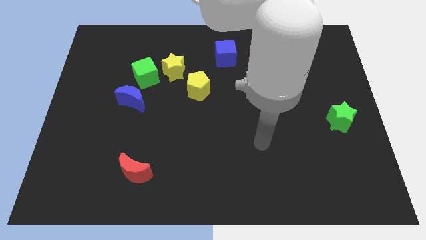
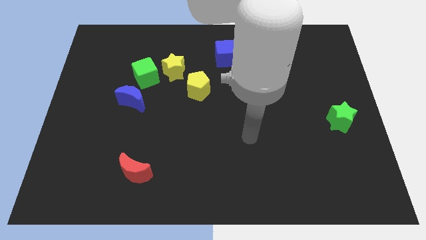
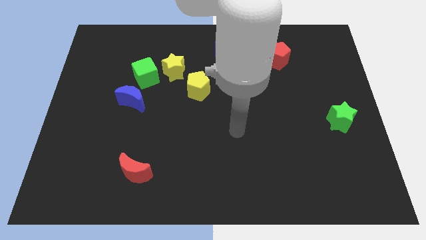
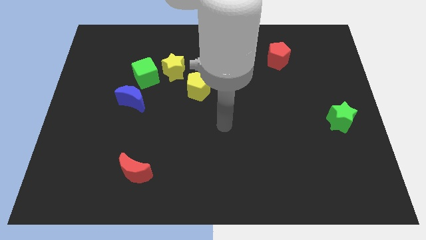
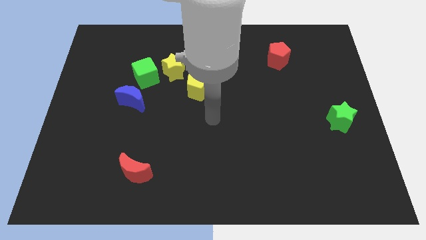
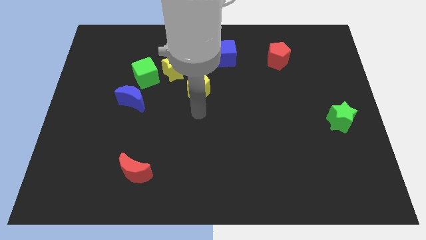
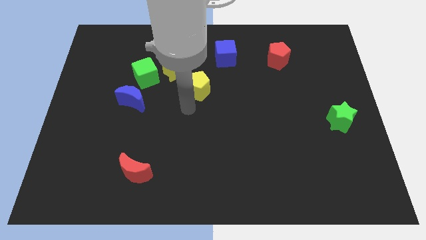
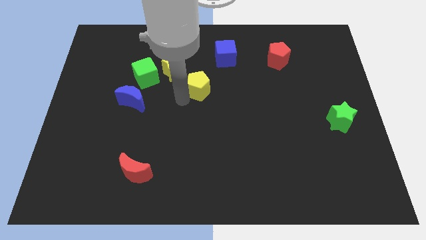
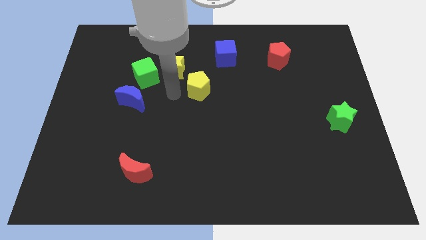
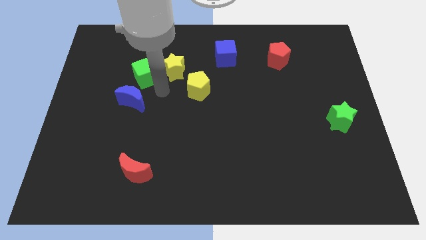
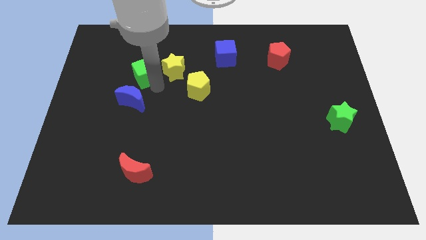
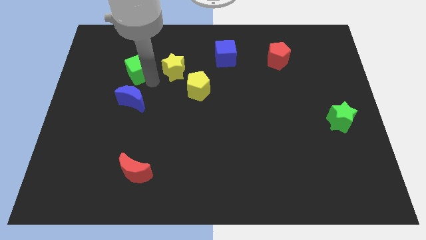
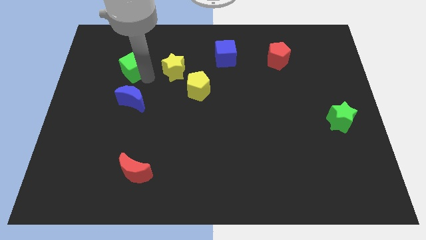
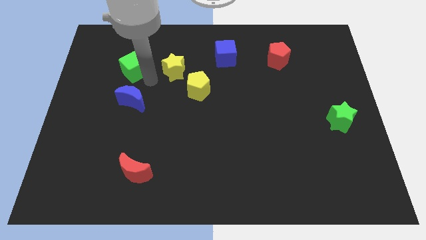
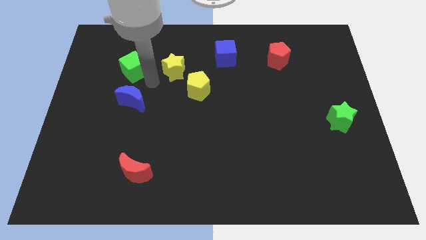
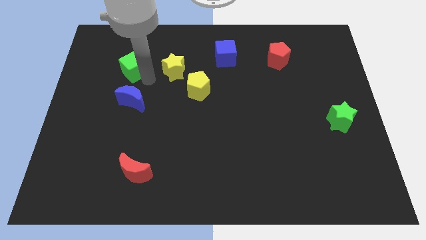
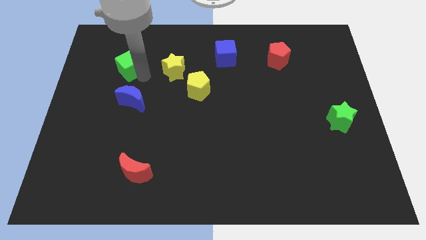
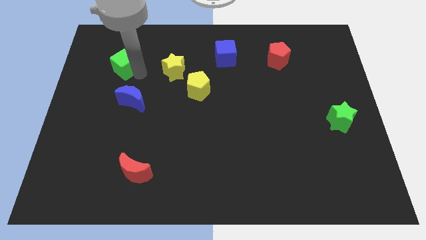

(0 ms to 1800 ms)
move the green cube away from the yellow star and blue moon

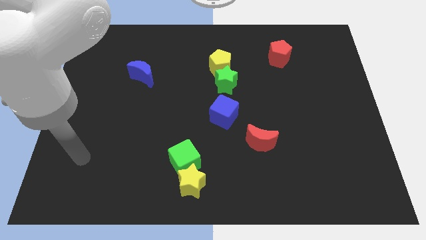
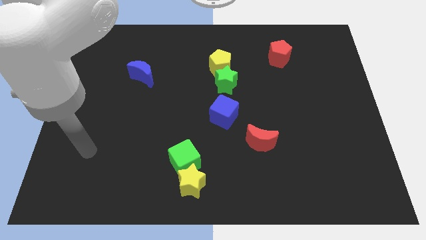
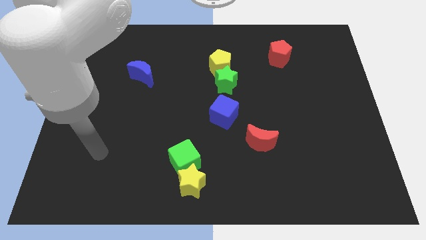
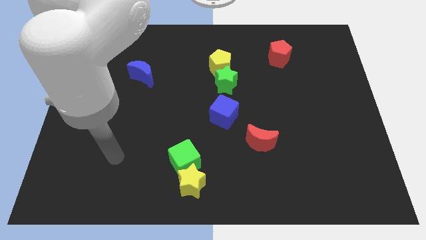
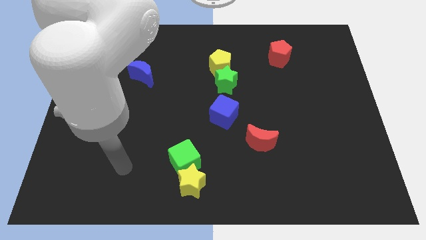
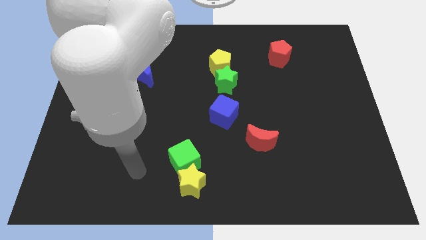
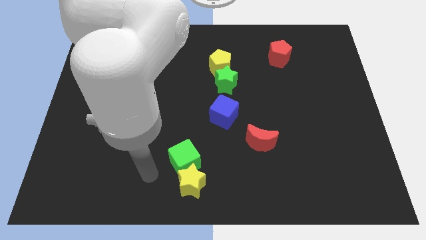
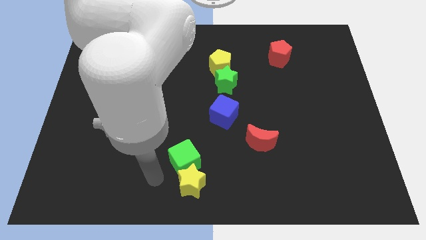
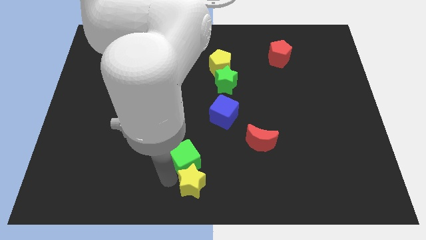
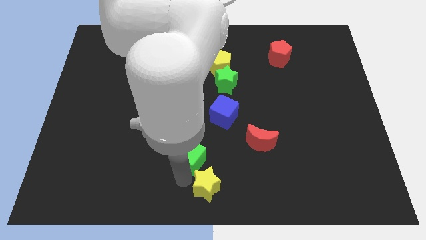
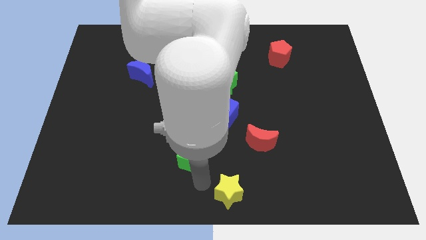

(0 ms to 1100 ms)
separate the green cube from the yellow star

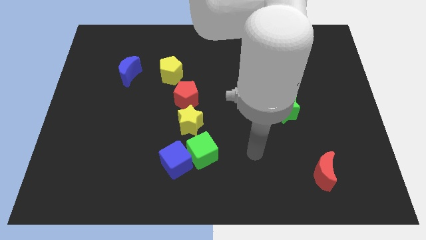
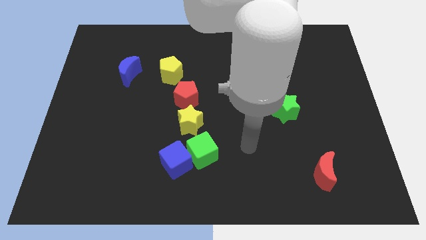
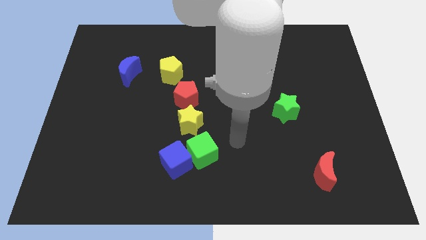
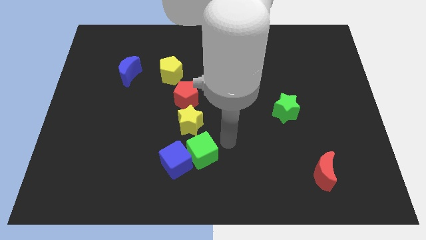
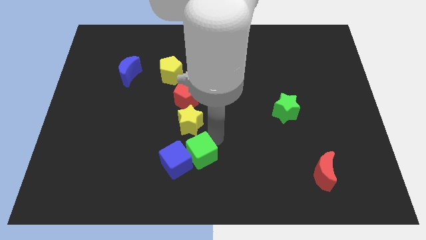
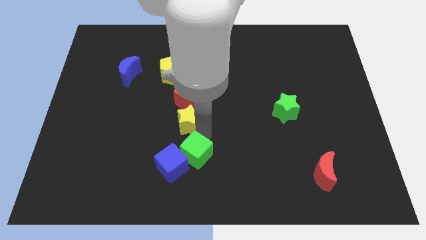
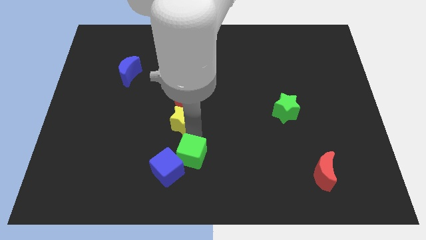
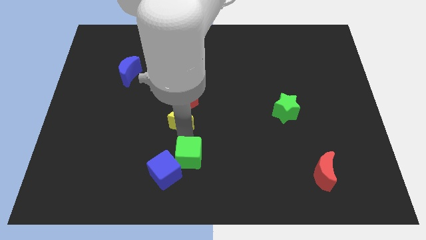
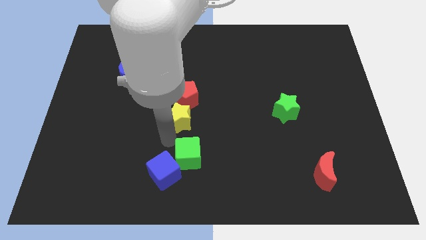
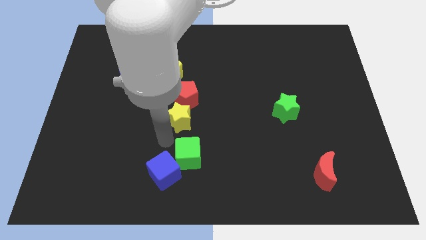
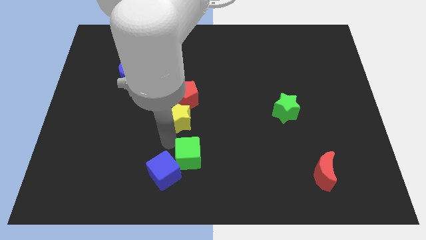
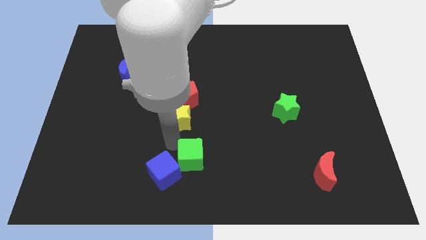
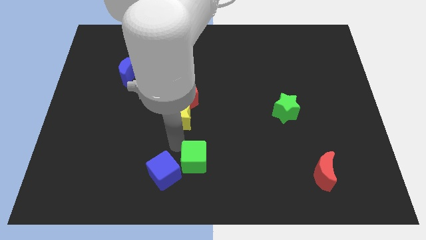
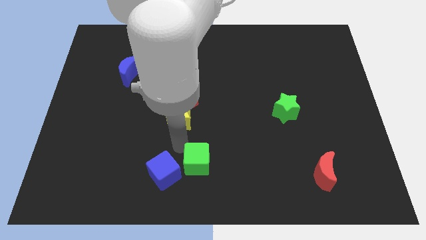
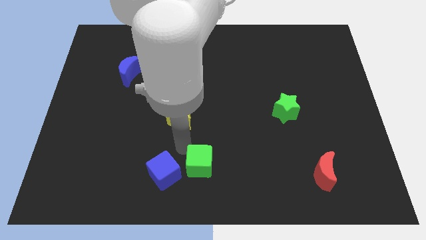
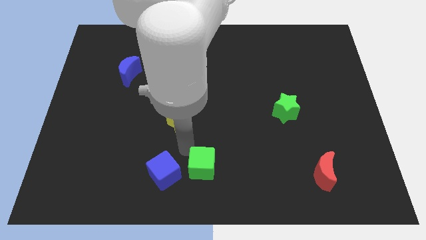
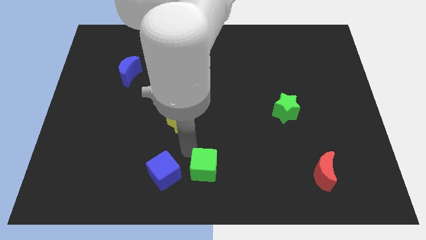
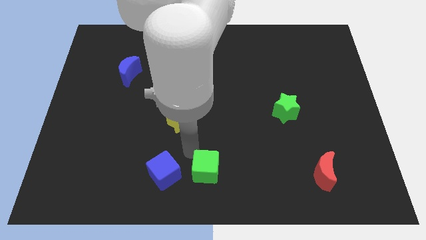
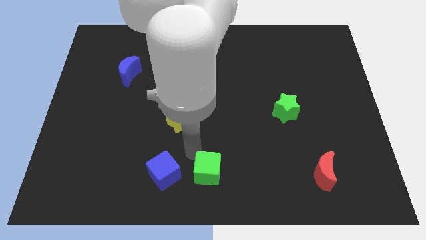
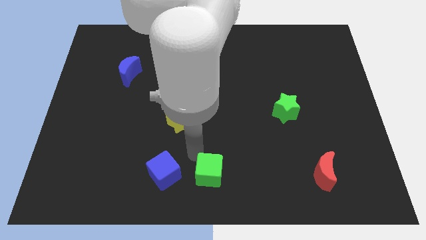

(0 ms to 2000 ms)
pull the green cube apart from the blue cube and yellow star

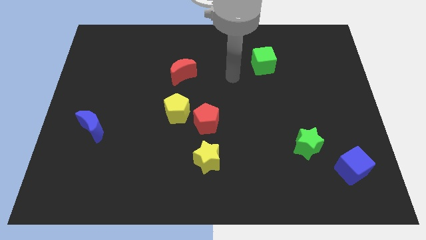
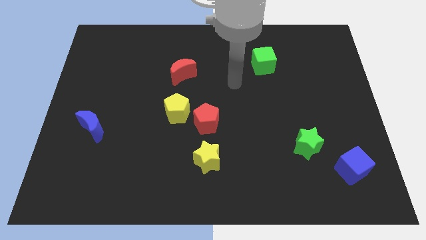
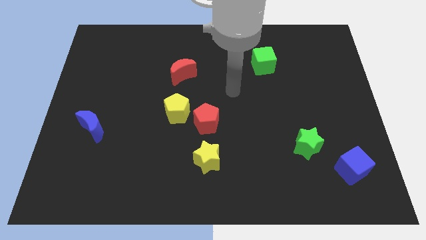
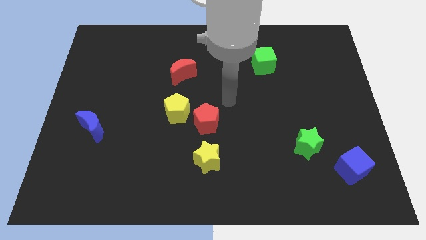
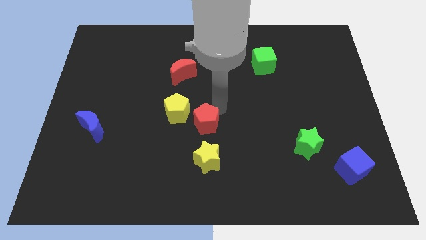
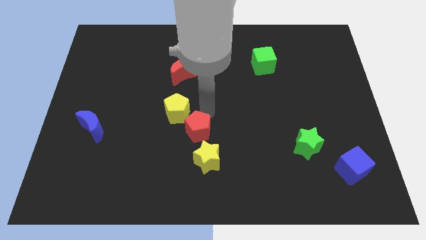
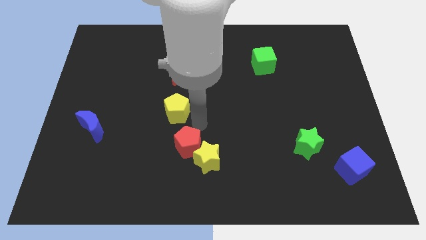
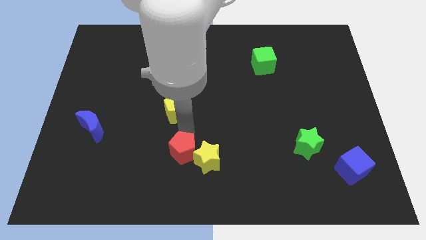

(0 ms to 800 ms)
move the yellow pentagon away from the red pentagon

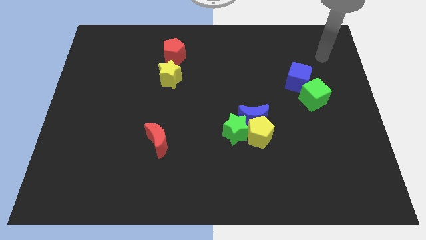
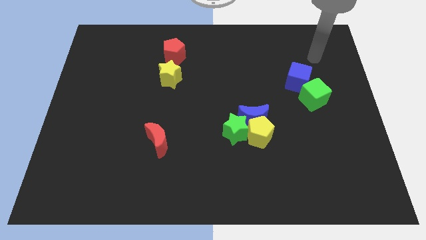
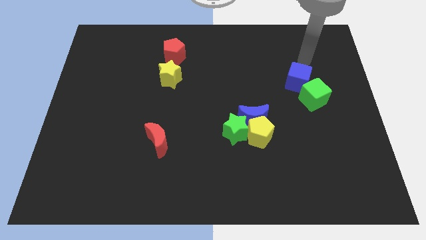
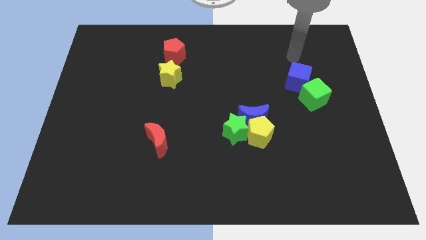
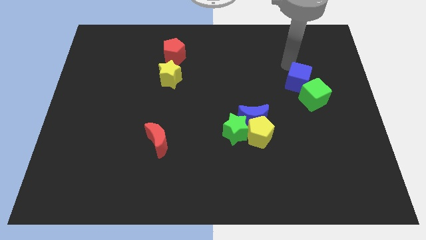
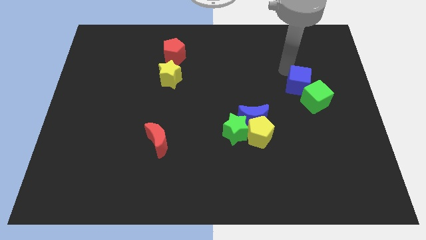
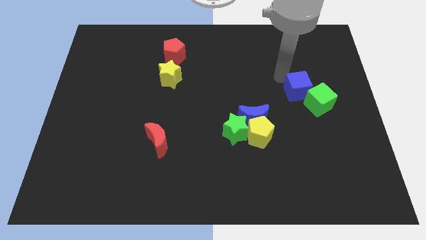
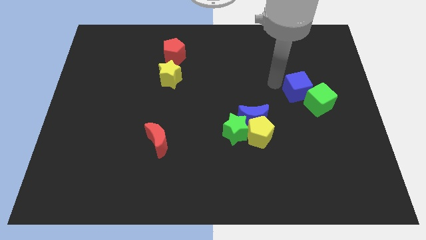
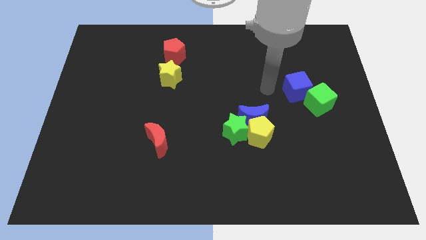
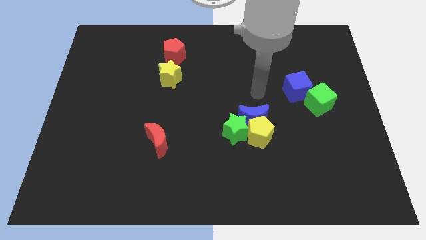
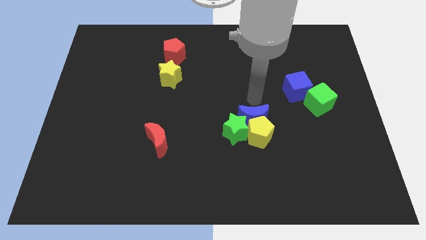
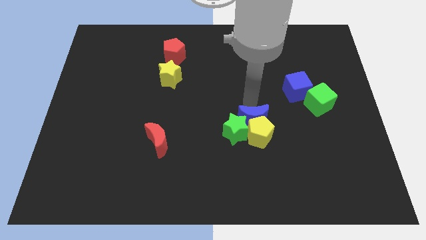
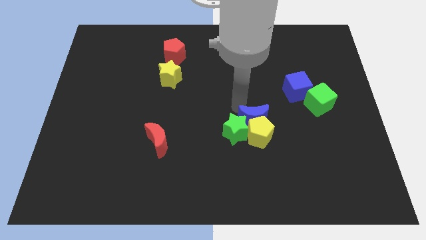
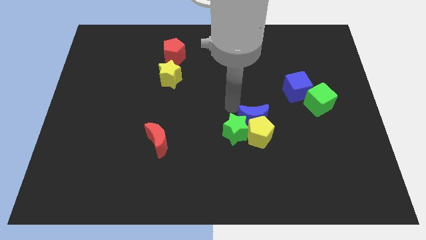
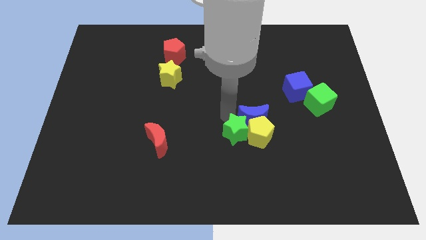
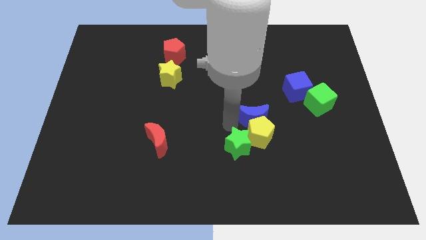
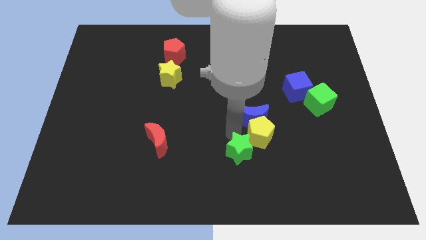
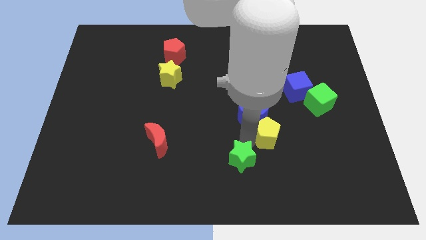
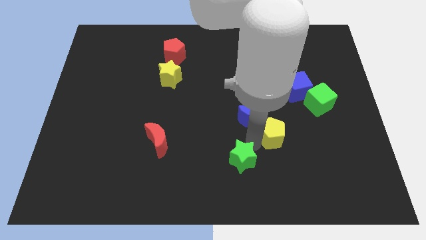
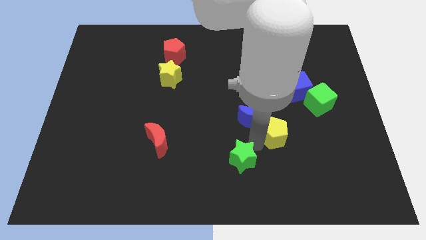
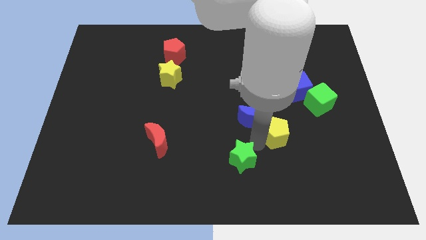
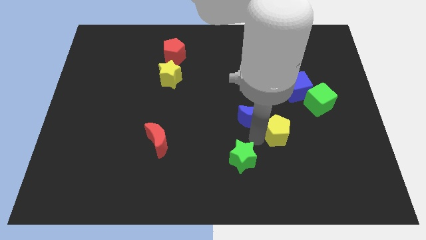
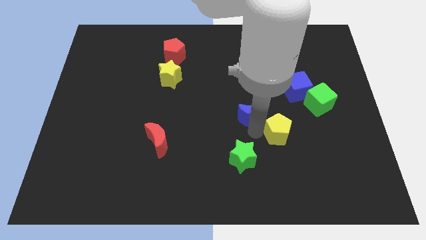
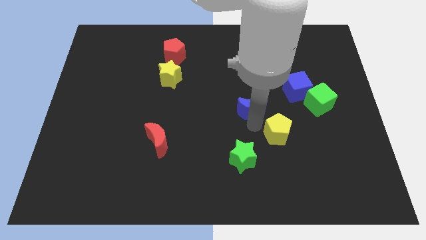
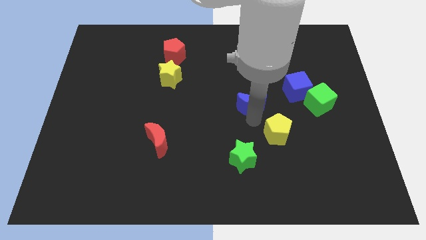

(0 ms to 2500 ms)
separate the blue moon from the yellow pentagon and green star

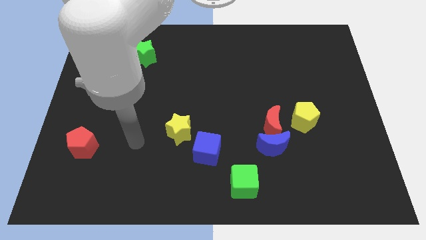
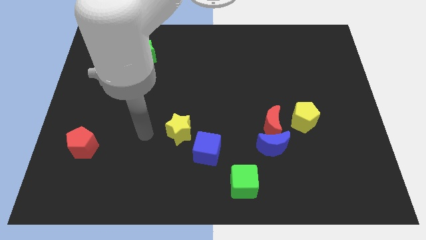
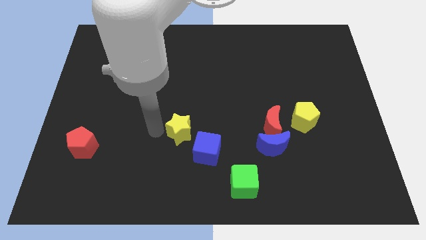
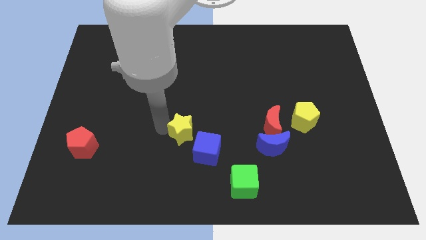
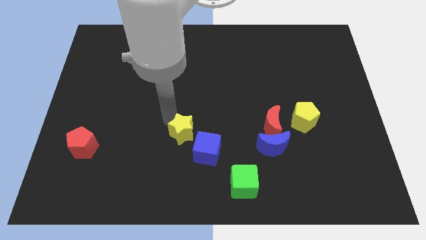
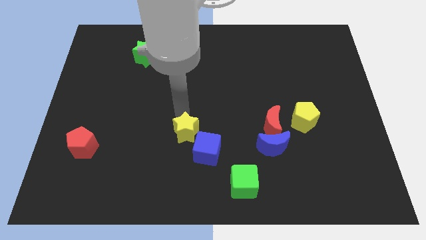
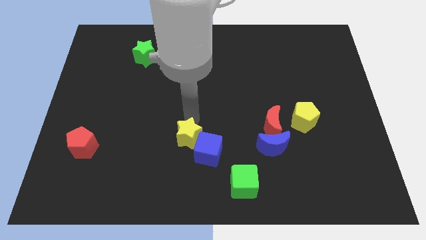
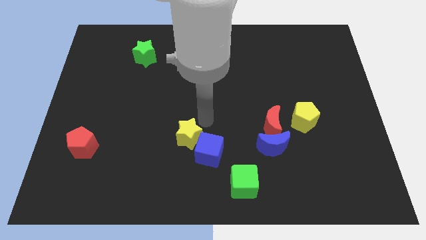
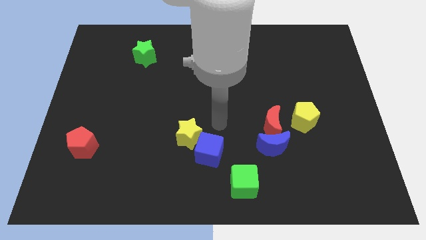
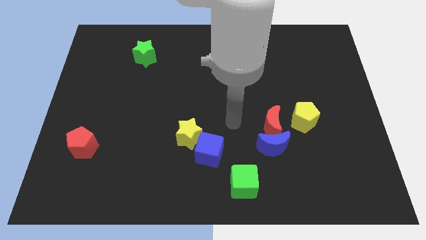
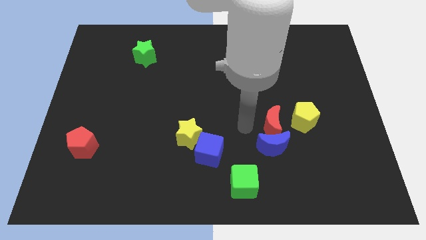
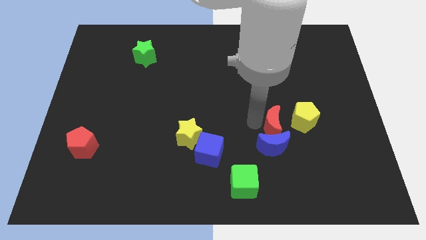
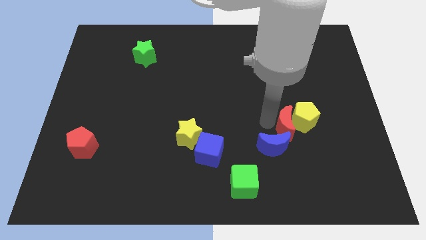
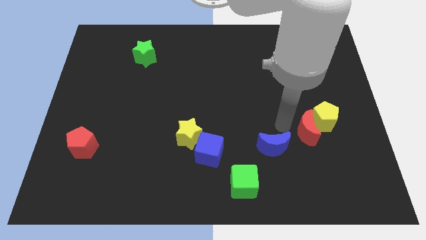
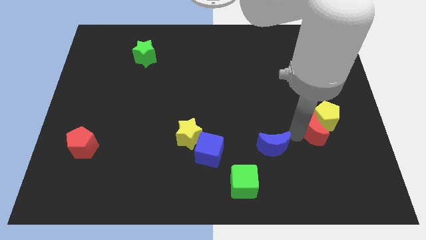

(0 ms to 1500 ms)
move the blue moon away from the red moon
